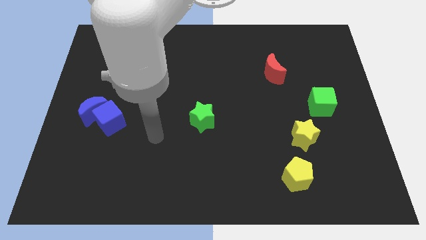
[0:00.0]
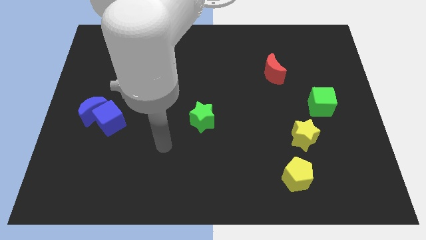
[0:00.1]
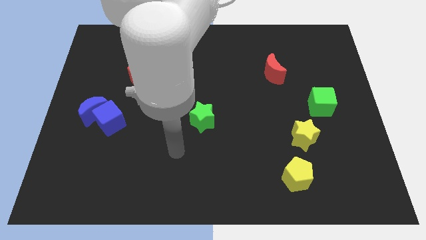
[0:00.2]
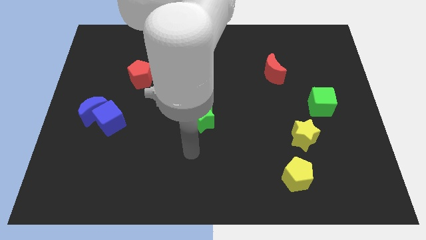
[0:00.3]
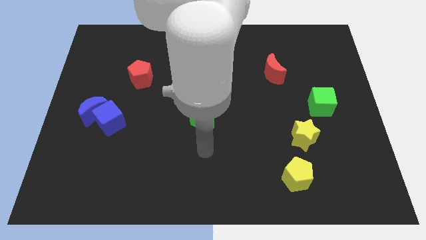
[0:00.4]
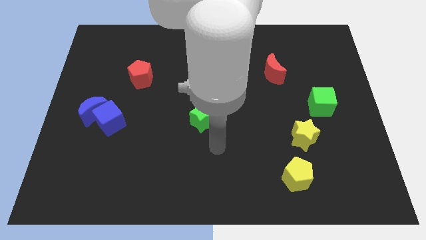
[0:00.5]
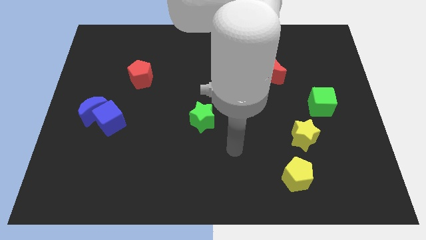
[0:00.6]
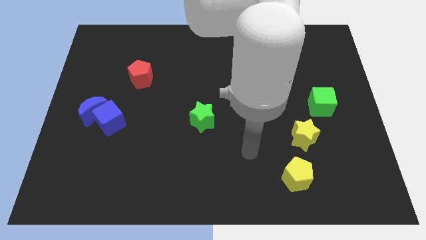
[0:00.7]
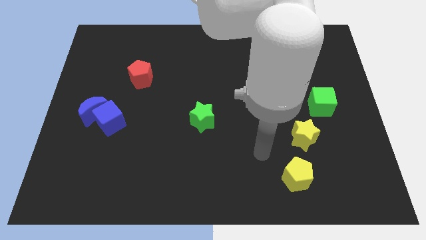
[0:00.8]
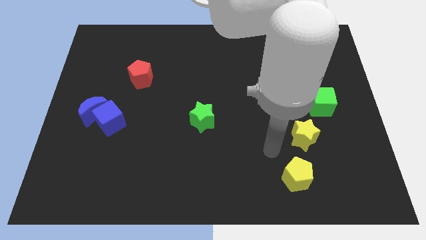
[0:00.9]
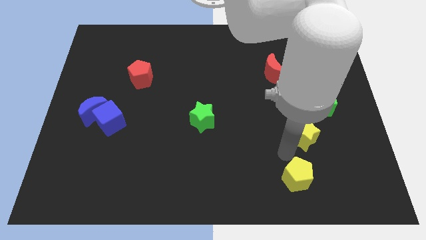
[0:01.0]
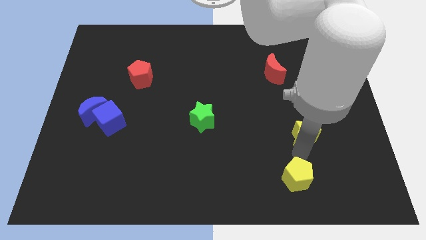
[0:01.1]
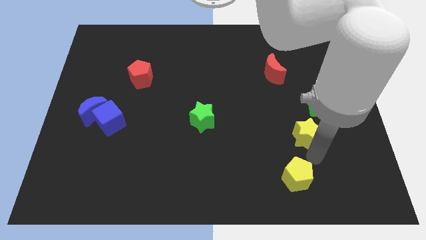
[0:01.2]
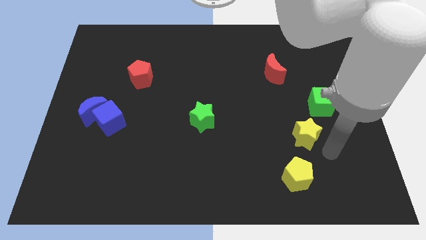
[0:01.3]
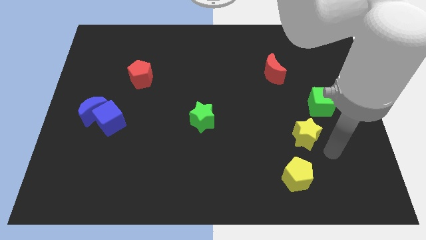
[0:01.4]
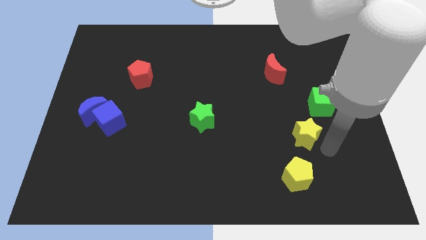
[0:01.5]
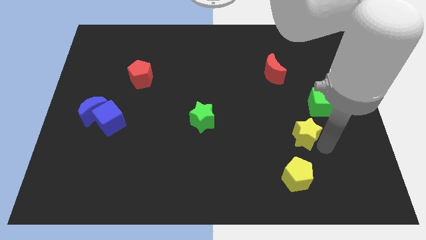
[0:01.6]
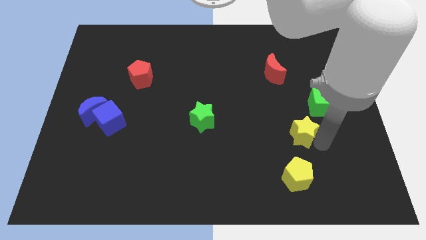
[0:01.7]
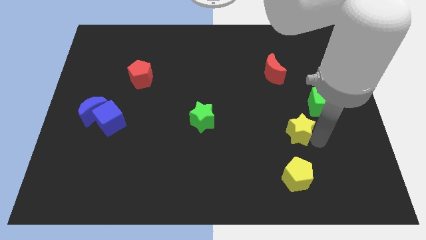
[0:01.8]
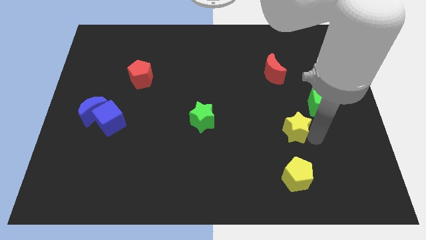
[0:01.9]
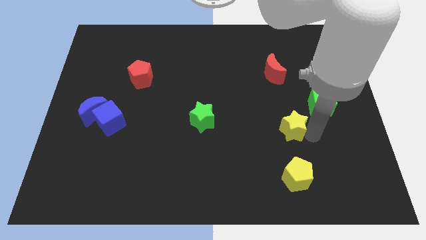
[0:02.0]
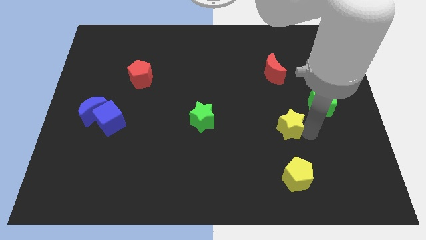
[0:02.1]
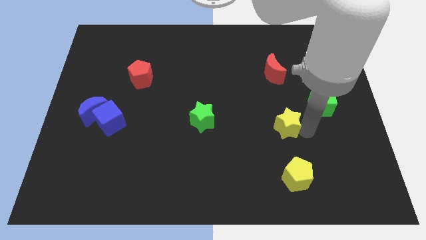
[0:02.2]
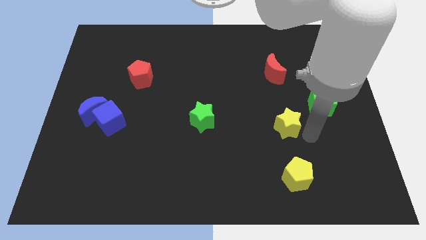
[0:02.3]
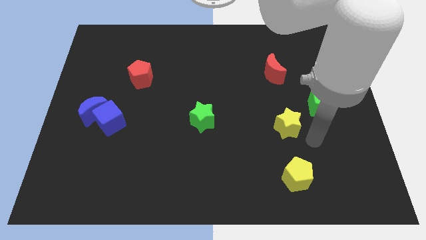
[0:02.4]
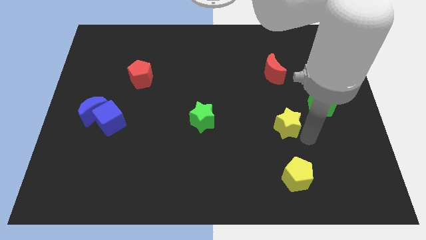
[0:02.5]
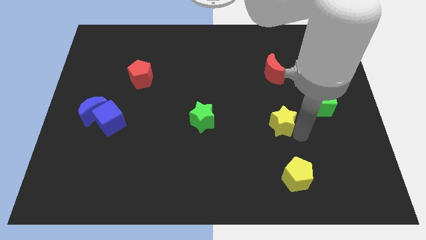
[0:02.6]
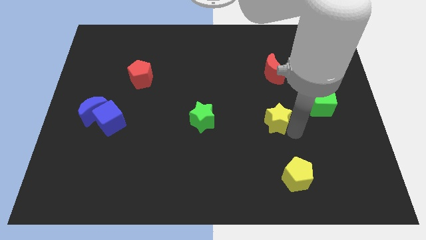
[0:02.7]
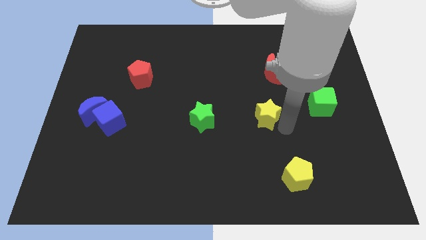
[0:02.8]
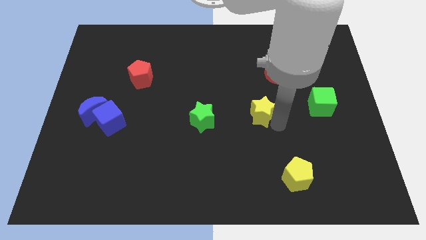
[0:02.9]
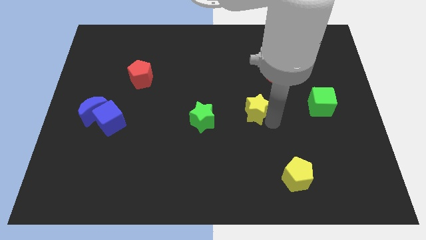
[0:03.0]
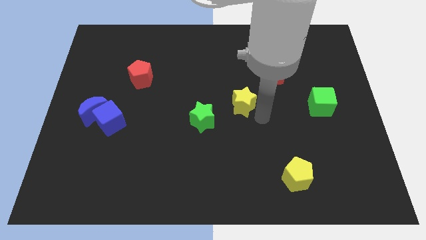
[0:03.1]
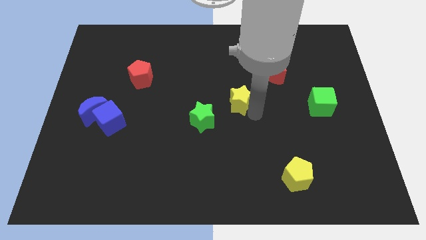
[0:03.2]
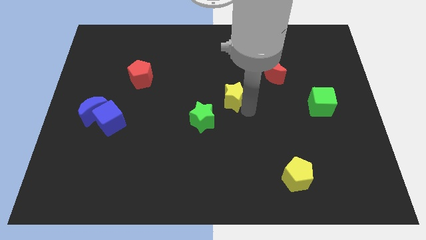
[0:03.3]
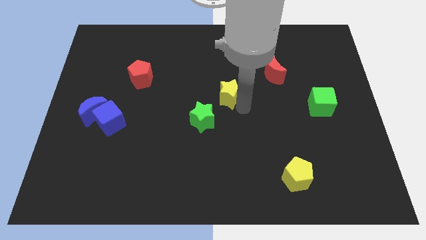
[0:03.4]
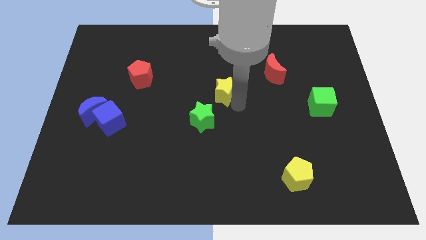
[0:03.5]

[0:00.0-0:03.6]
move the yellow star up and to the left

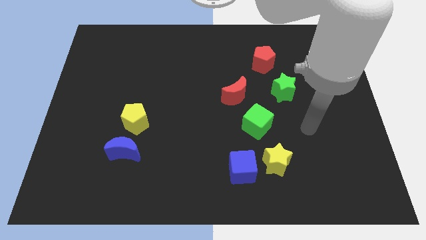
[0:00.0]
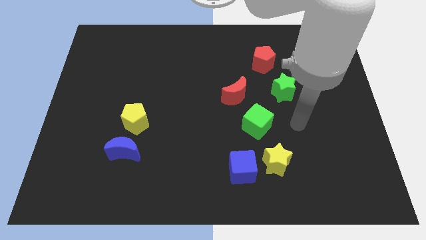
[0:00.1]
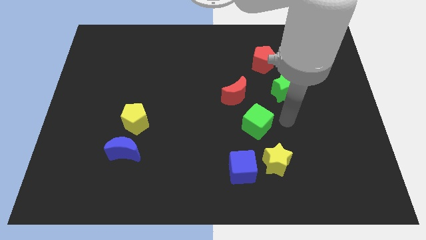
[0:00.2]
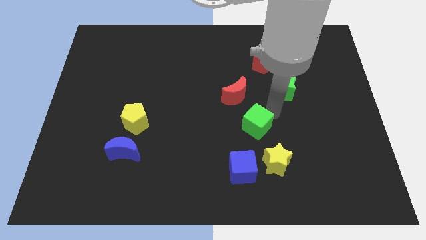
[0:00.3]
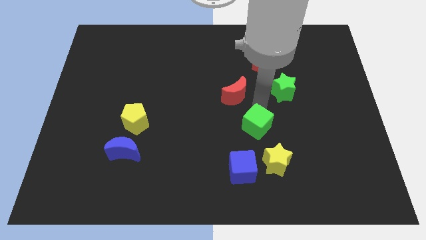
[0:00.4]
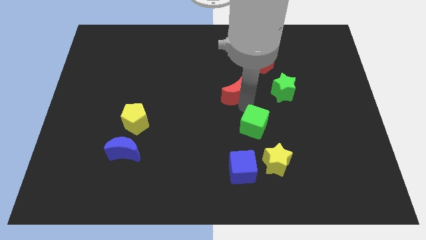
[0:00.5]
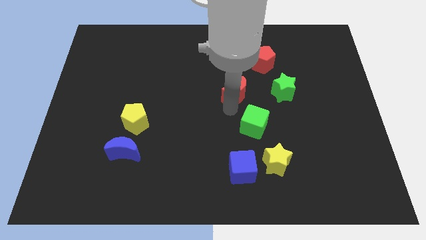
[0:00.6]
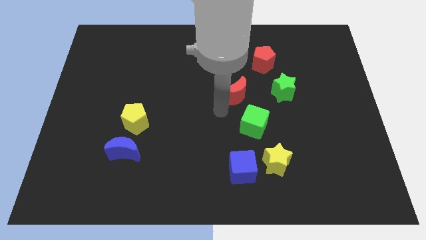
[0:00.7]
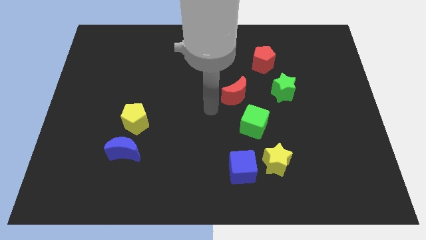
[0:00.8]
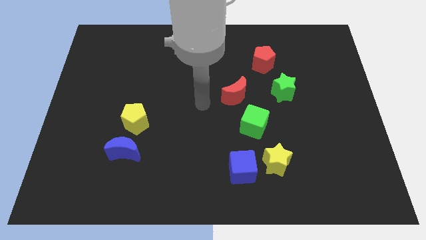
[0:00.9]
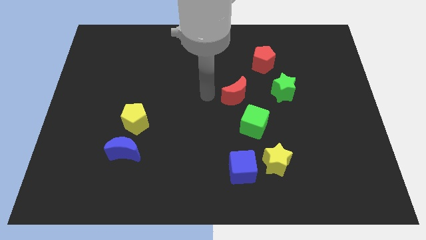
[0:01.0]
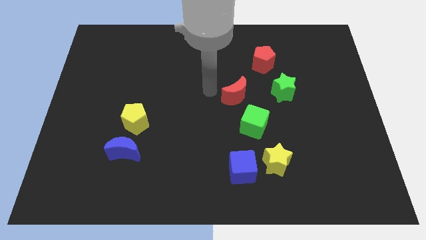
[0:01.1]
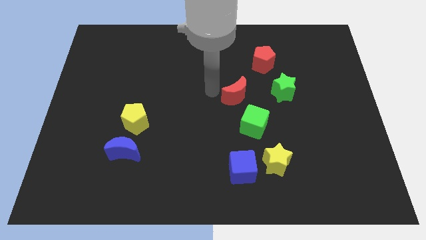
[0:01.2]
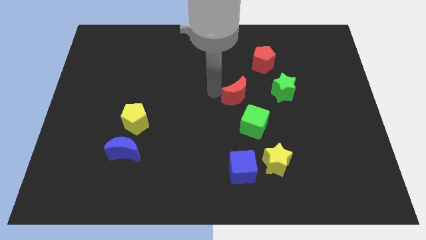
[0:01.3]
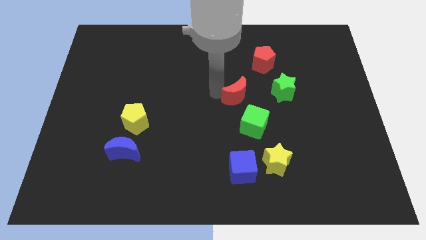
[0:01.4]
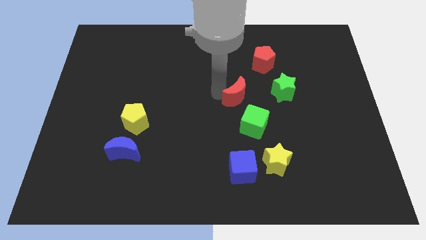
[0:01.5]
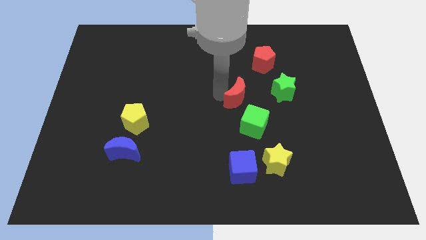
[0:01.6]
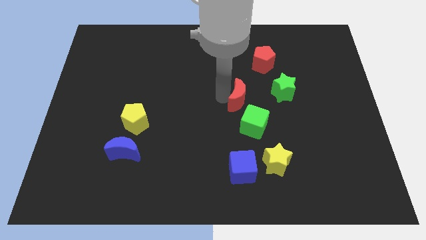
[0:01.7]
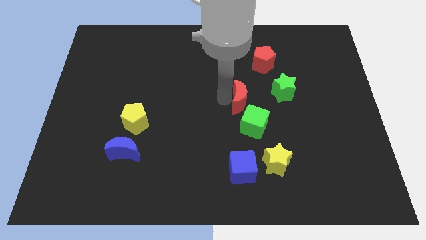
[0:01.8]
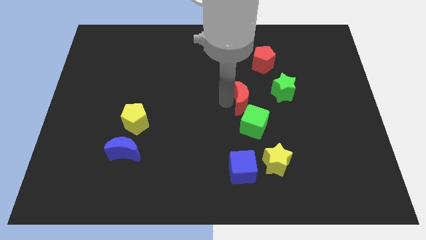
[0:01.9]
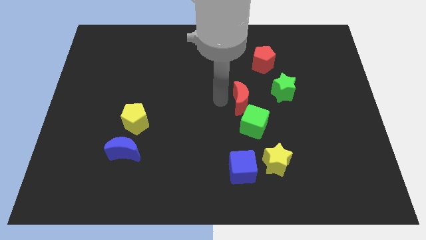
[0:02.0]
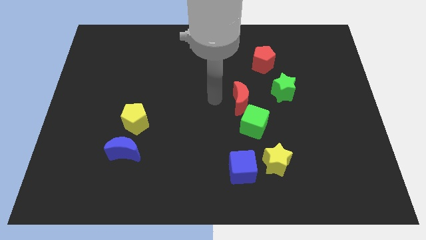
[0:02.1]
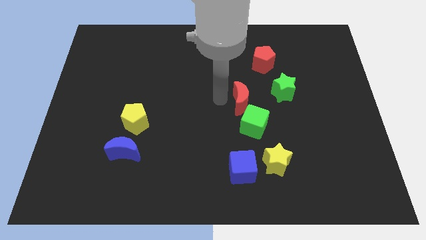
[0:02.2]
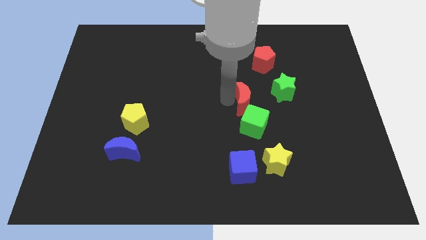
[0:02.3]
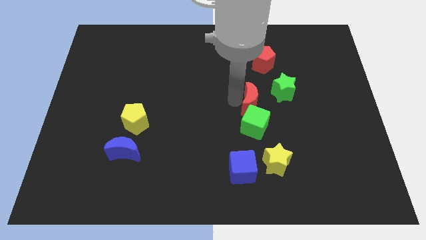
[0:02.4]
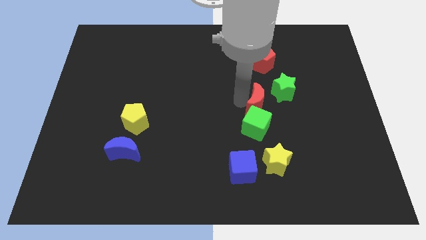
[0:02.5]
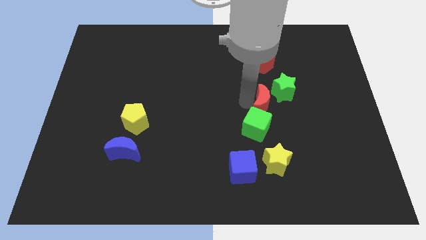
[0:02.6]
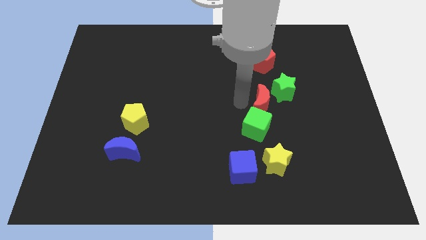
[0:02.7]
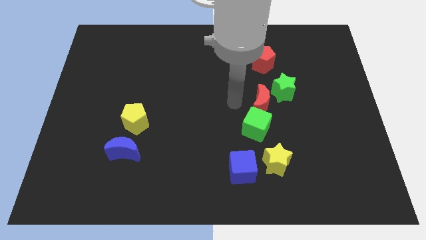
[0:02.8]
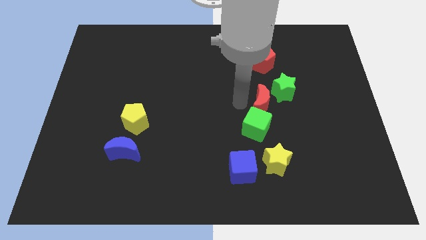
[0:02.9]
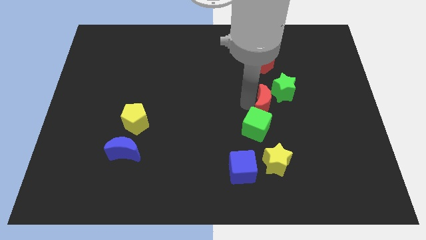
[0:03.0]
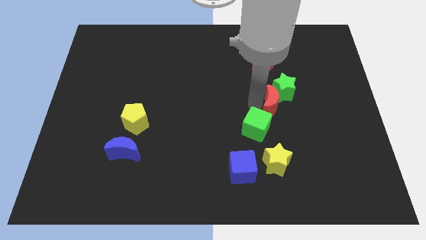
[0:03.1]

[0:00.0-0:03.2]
slide the red moon right a little

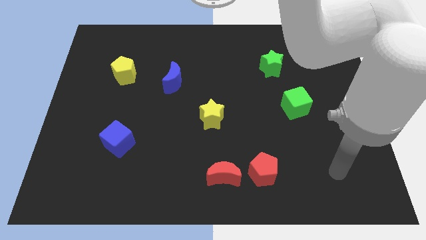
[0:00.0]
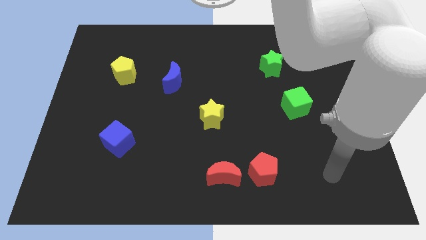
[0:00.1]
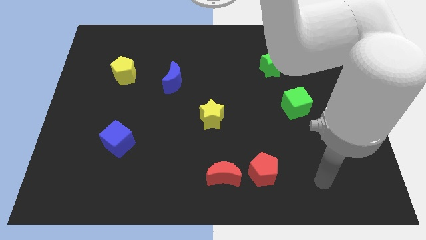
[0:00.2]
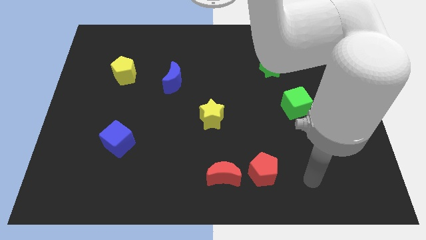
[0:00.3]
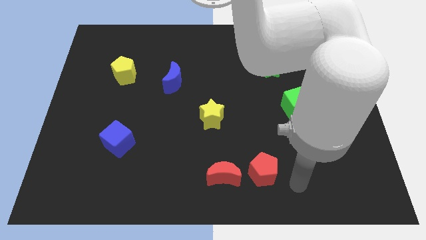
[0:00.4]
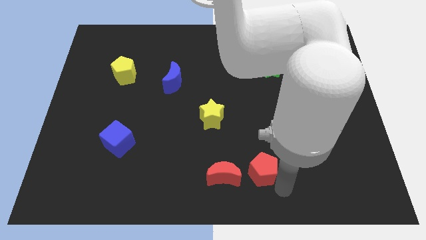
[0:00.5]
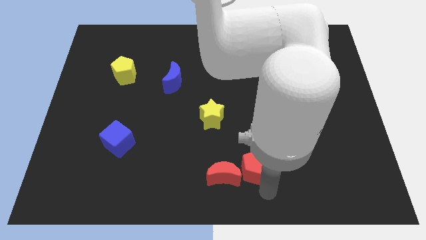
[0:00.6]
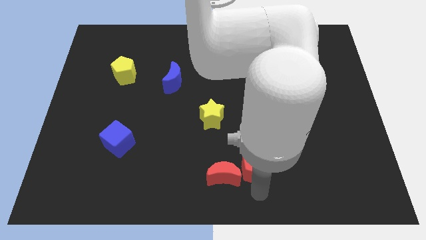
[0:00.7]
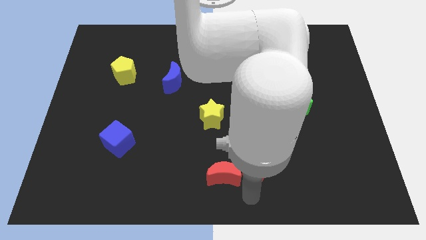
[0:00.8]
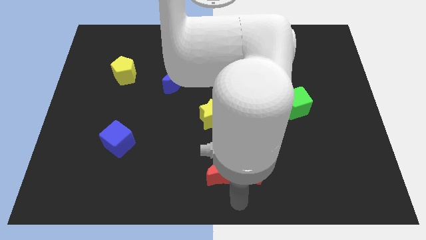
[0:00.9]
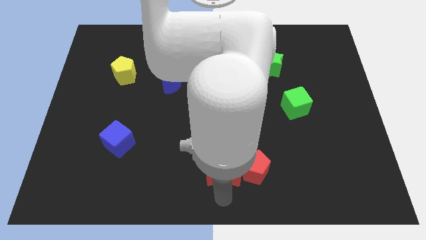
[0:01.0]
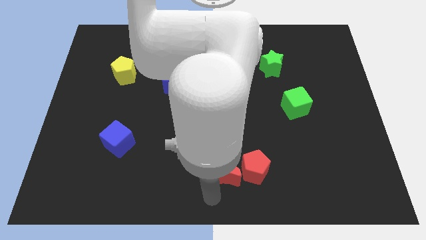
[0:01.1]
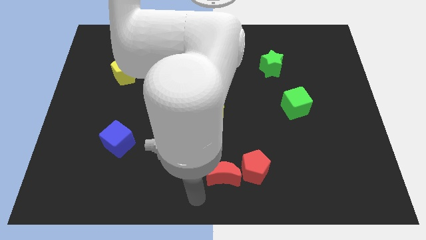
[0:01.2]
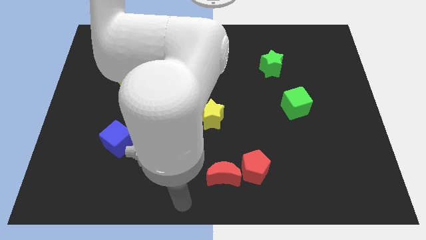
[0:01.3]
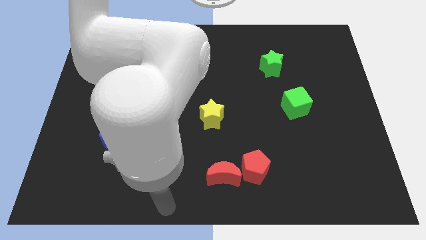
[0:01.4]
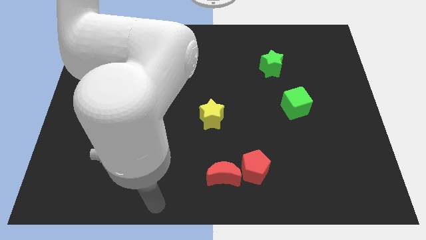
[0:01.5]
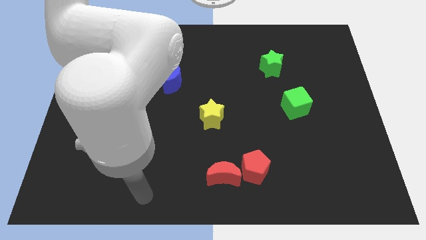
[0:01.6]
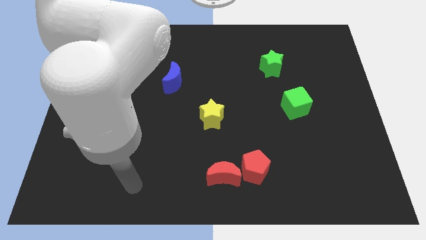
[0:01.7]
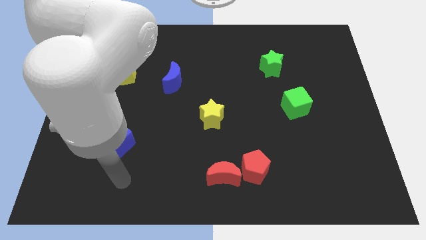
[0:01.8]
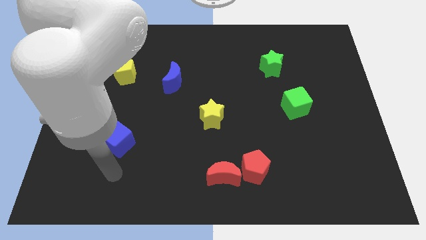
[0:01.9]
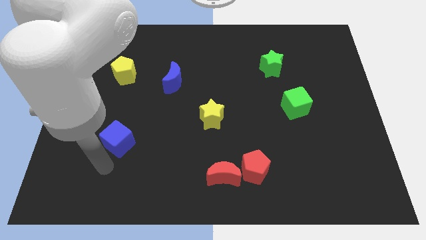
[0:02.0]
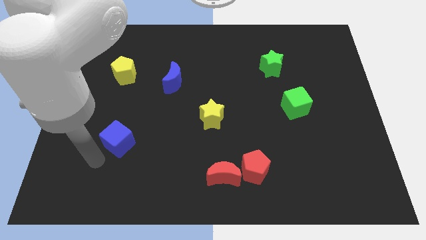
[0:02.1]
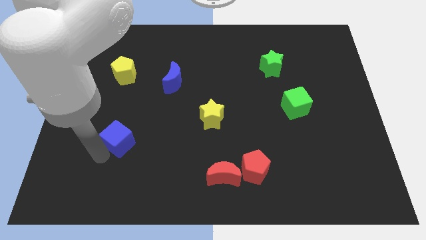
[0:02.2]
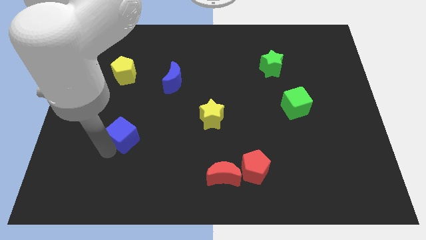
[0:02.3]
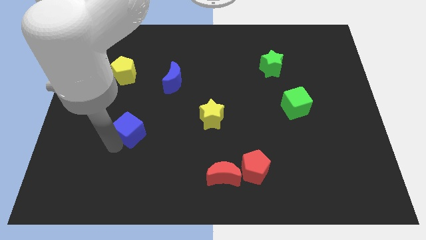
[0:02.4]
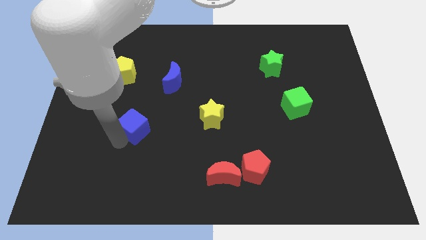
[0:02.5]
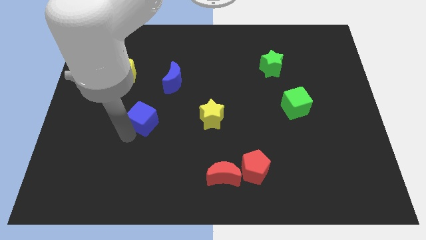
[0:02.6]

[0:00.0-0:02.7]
slightly slide the blue cube up and right diagonally
